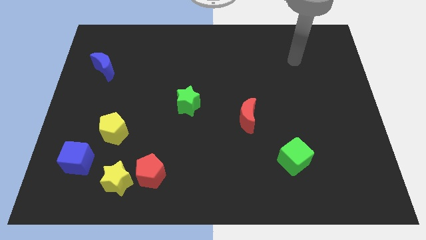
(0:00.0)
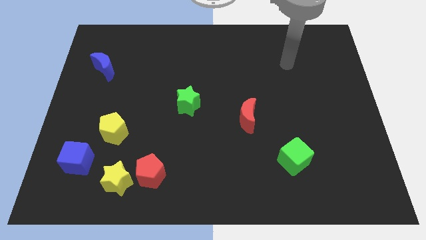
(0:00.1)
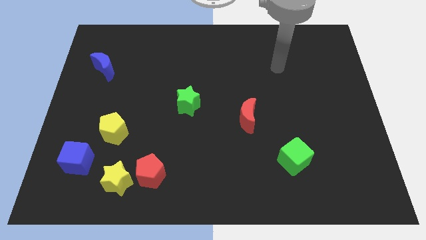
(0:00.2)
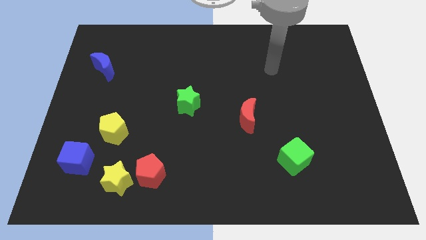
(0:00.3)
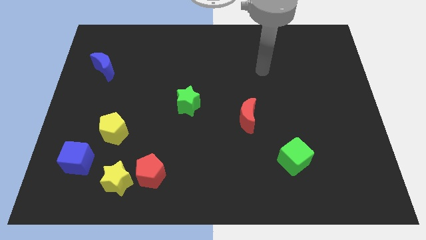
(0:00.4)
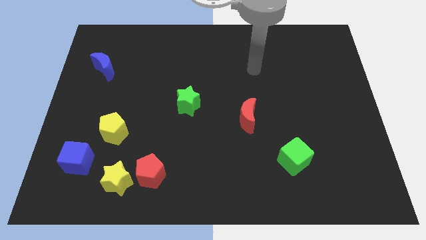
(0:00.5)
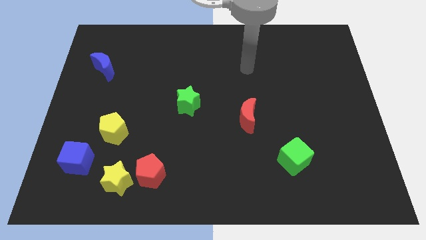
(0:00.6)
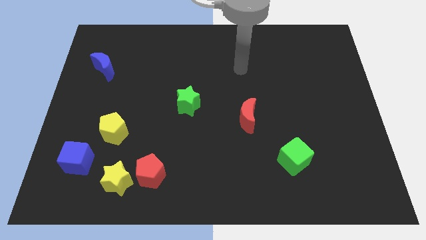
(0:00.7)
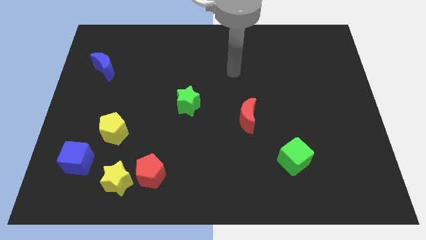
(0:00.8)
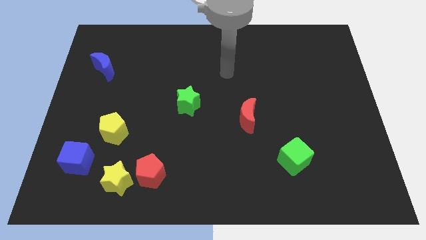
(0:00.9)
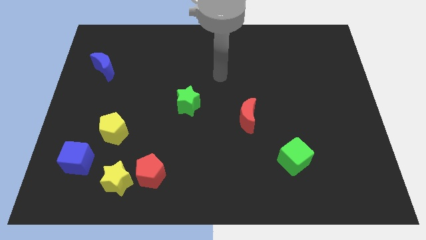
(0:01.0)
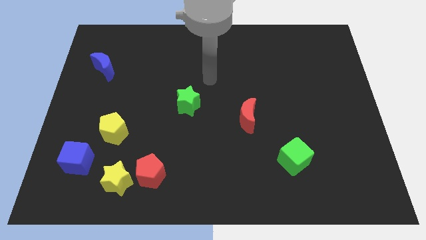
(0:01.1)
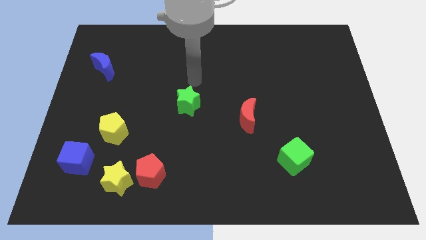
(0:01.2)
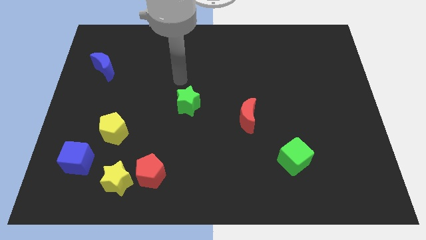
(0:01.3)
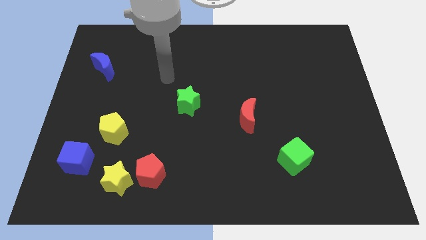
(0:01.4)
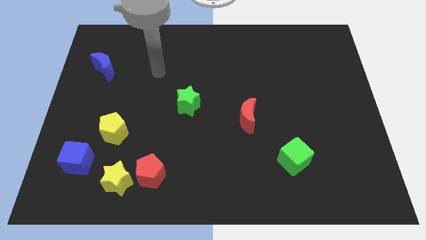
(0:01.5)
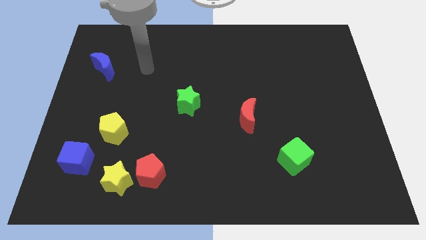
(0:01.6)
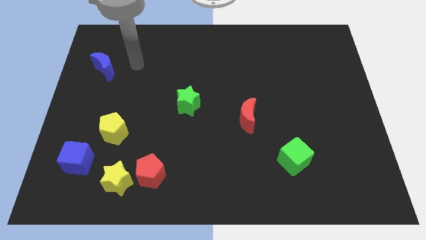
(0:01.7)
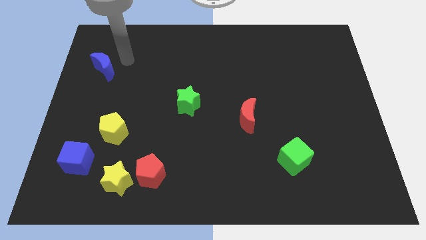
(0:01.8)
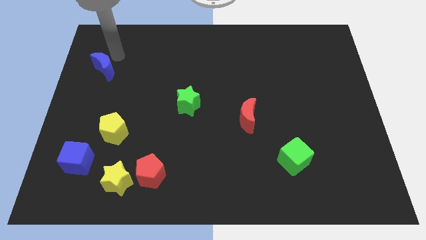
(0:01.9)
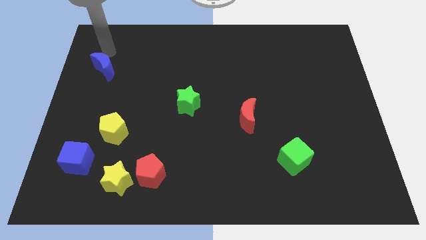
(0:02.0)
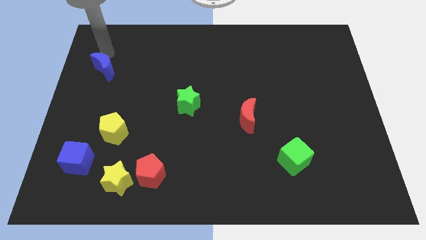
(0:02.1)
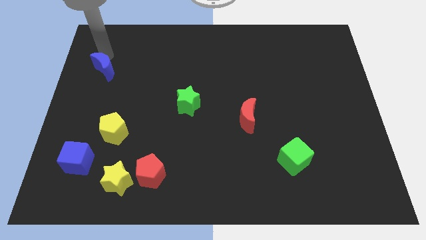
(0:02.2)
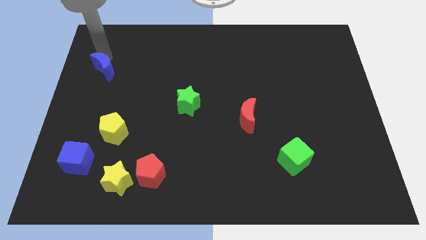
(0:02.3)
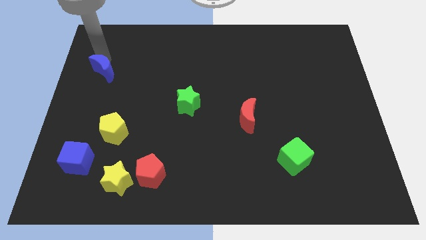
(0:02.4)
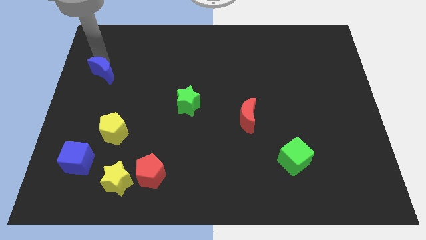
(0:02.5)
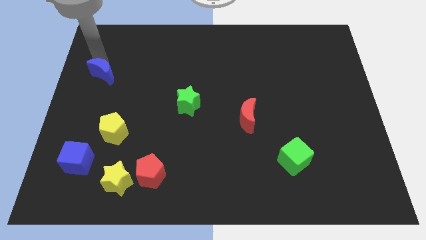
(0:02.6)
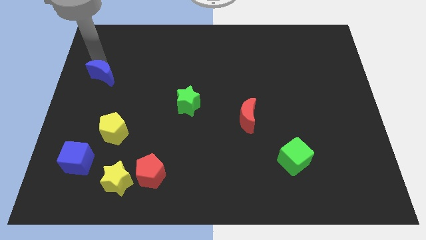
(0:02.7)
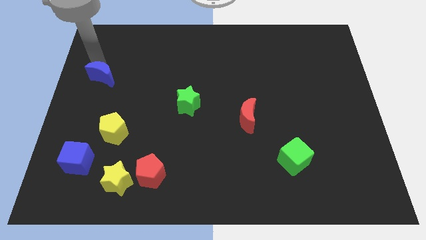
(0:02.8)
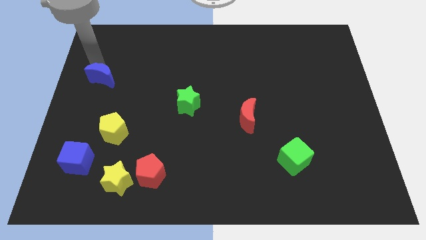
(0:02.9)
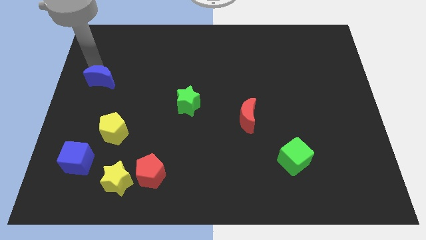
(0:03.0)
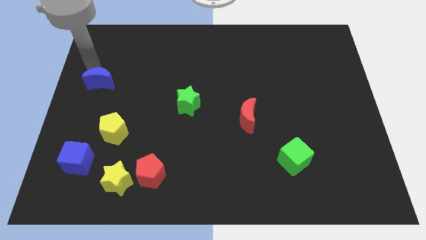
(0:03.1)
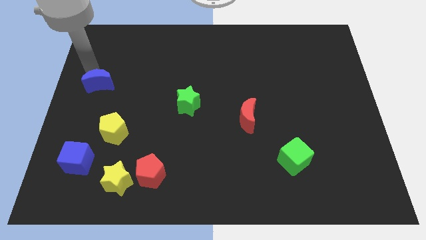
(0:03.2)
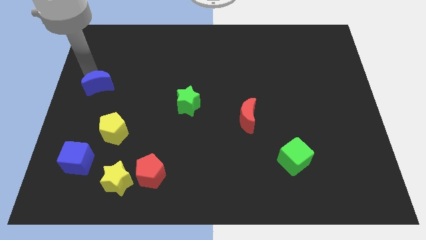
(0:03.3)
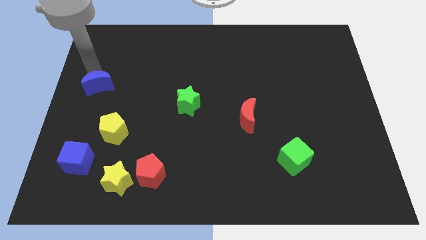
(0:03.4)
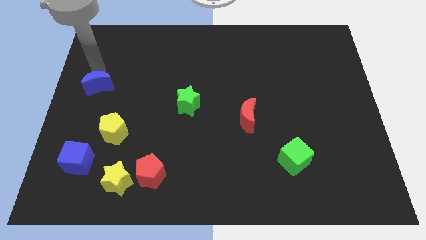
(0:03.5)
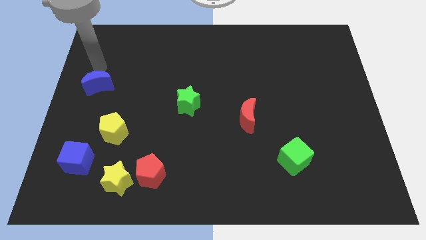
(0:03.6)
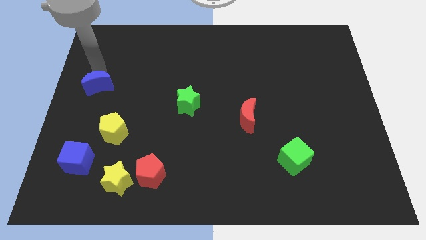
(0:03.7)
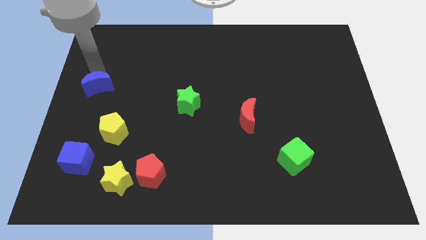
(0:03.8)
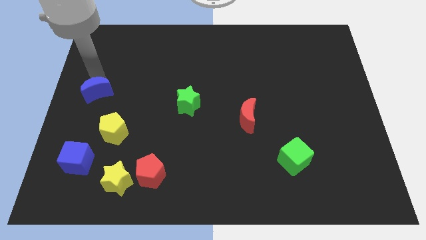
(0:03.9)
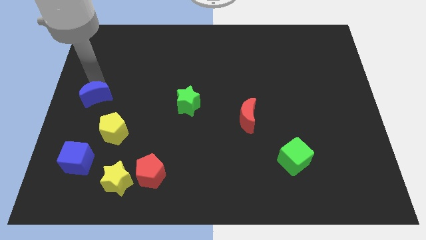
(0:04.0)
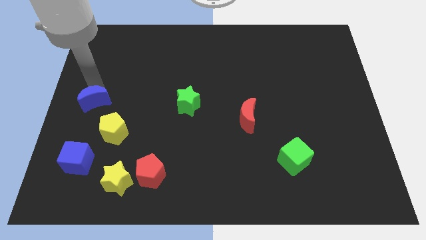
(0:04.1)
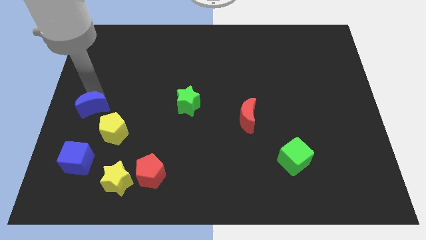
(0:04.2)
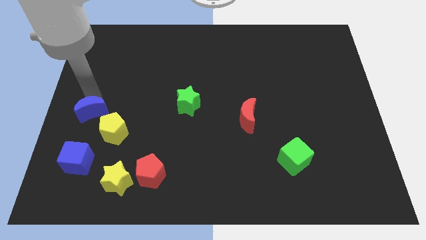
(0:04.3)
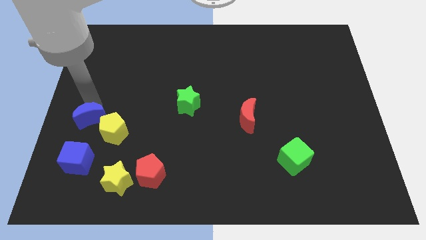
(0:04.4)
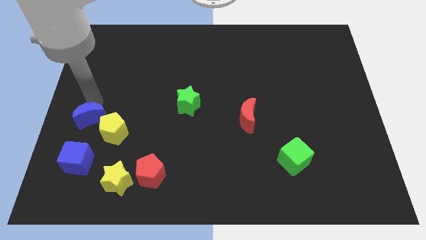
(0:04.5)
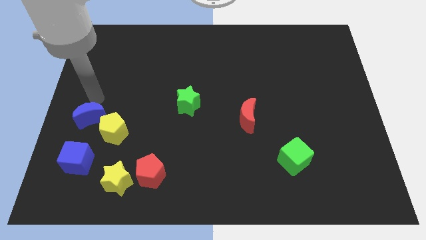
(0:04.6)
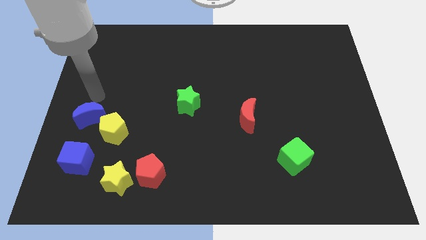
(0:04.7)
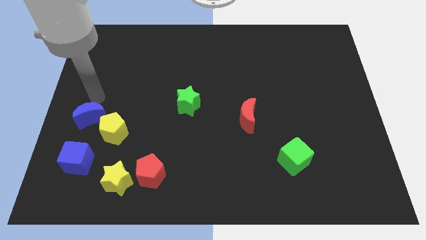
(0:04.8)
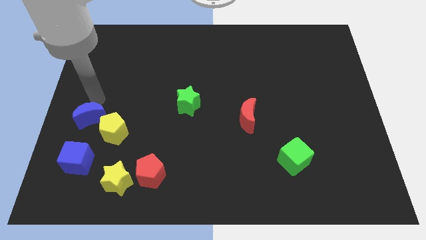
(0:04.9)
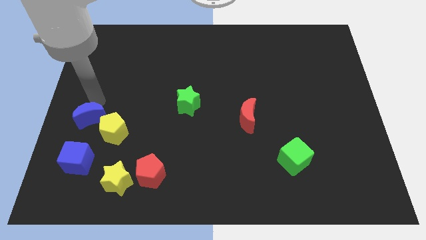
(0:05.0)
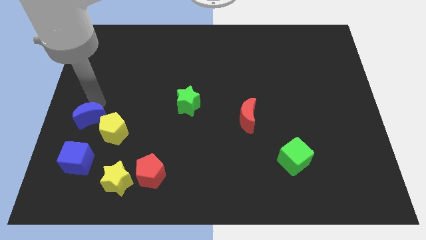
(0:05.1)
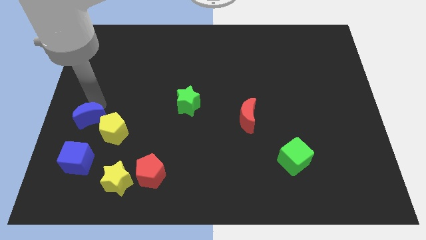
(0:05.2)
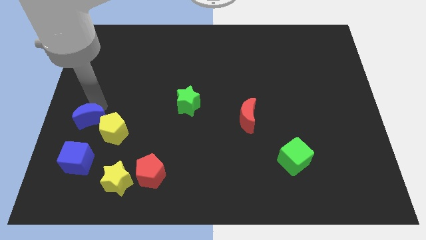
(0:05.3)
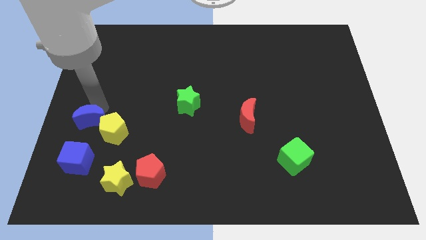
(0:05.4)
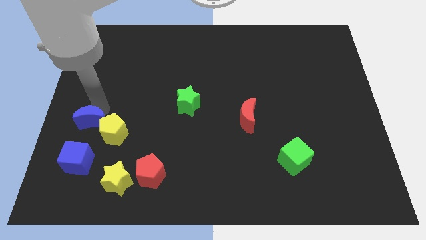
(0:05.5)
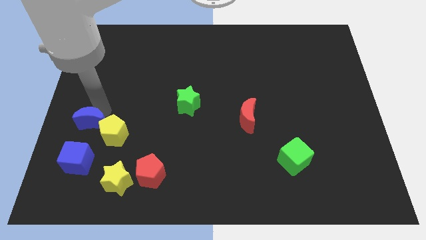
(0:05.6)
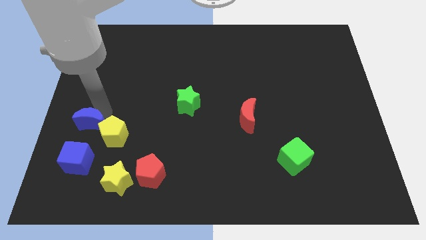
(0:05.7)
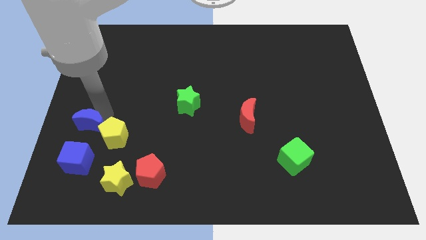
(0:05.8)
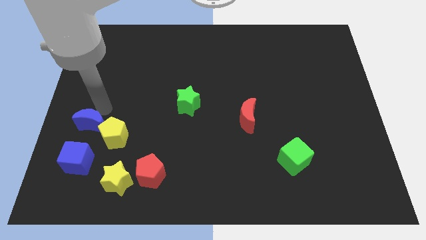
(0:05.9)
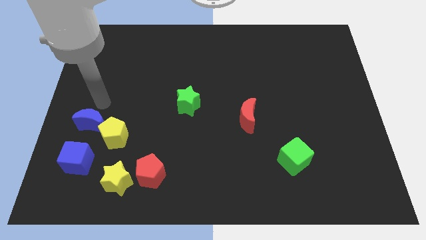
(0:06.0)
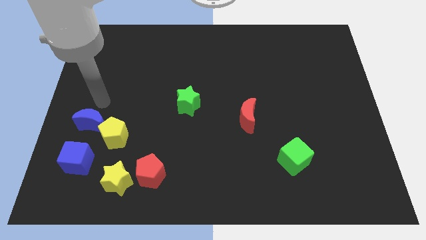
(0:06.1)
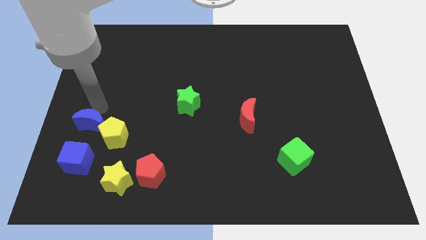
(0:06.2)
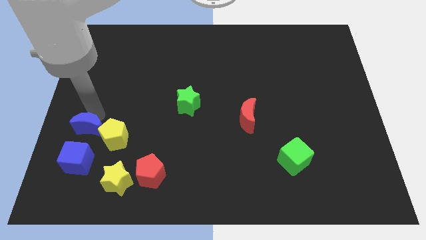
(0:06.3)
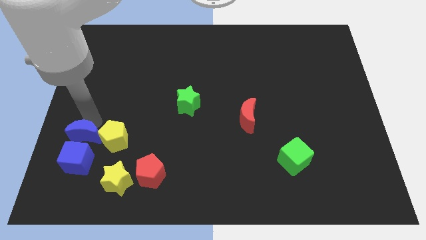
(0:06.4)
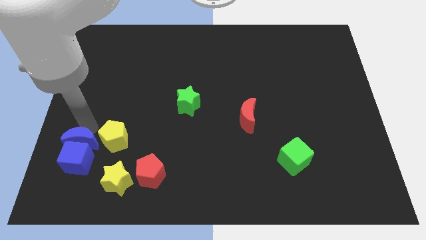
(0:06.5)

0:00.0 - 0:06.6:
slide the blue moon towards the blue cube
